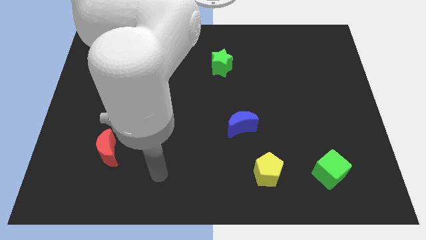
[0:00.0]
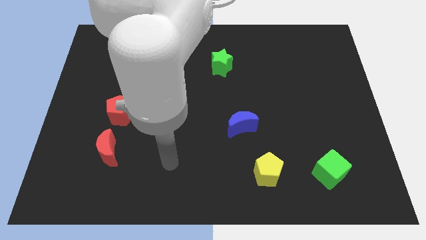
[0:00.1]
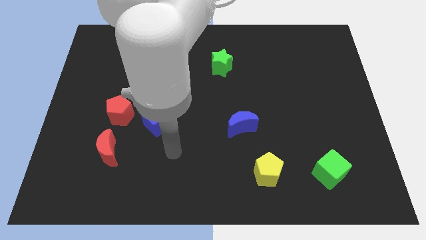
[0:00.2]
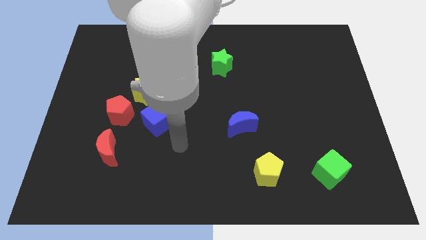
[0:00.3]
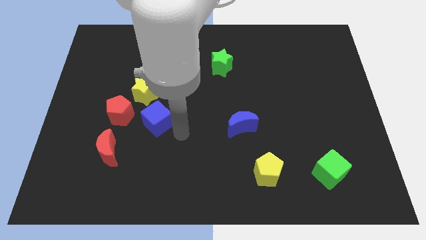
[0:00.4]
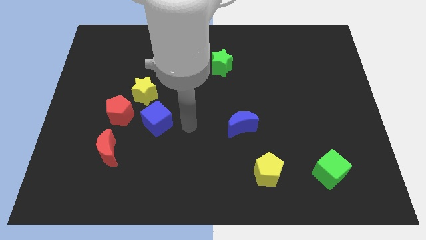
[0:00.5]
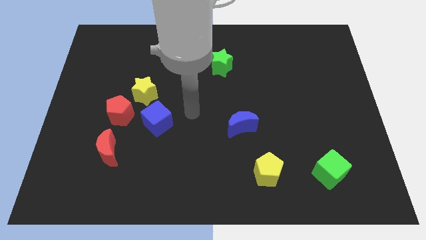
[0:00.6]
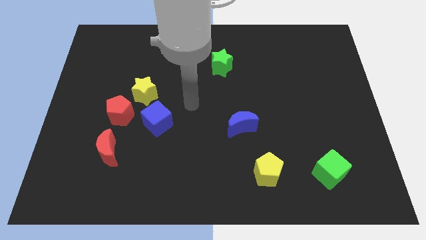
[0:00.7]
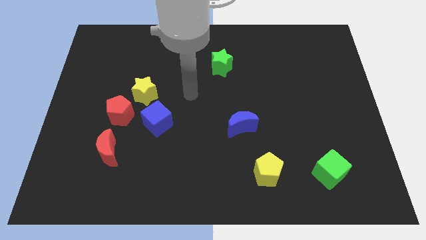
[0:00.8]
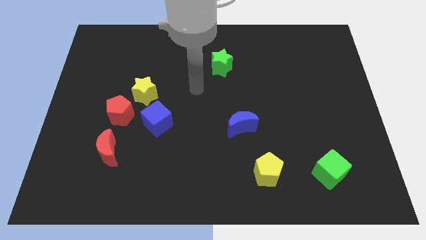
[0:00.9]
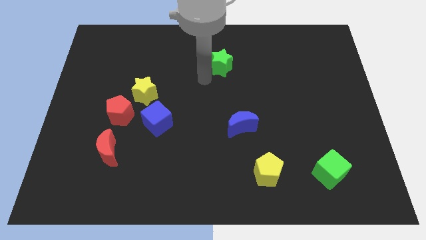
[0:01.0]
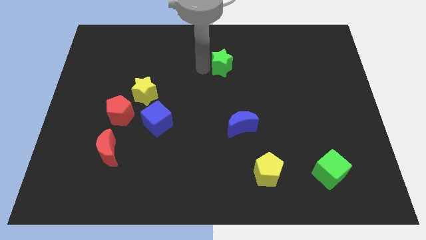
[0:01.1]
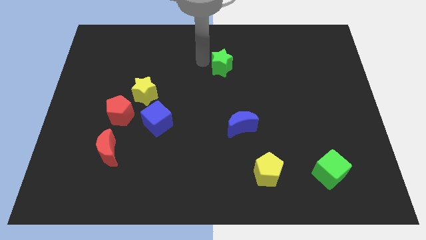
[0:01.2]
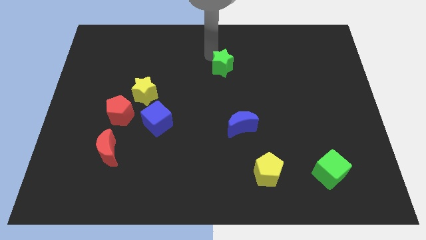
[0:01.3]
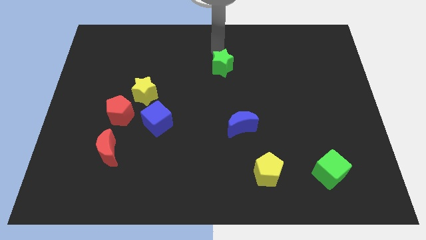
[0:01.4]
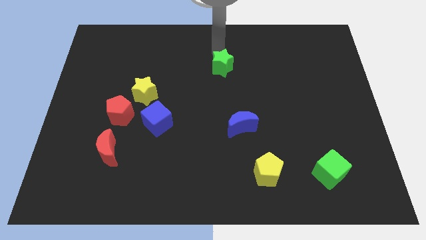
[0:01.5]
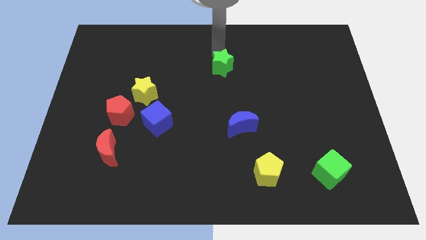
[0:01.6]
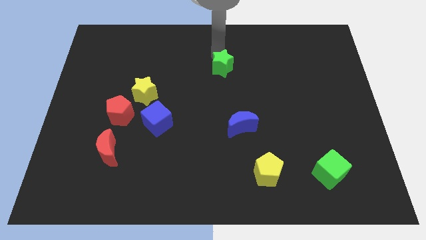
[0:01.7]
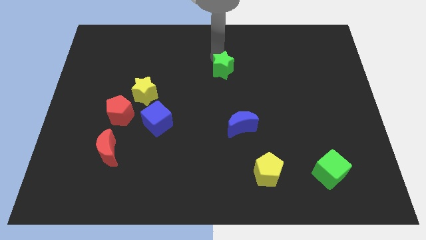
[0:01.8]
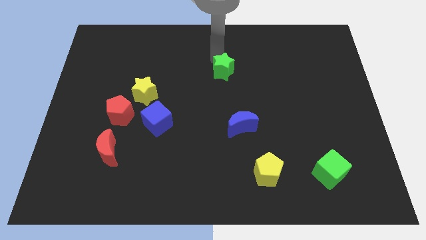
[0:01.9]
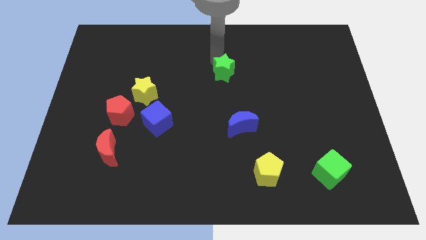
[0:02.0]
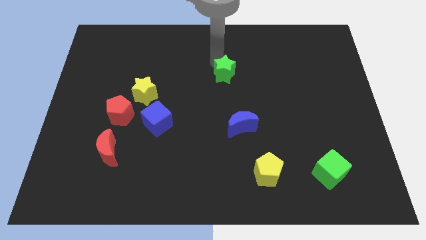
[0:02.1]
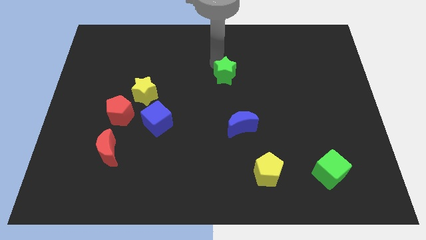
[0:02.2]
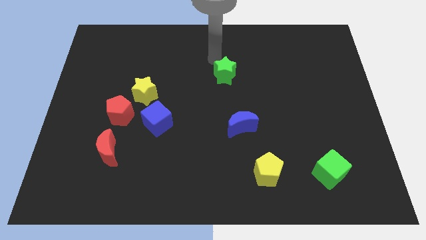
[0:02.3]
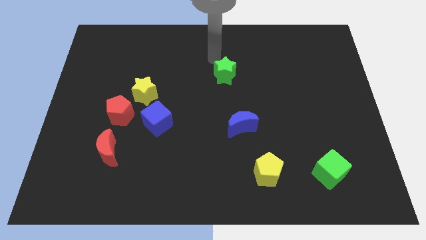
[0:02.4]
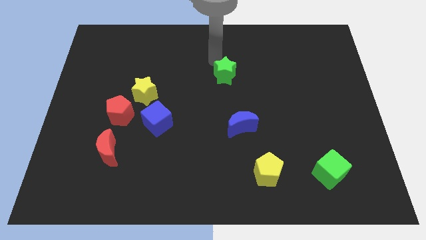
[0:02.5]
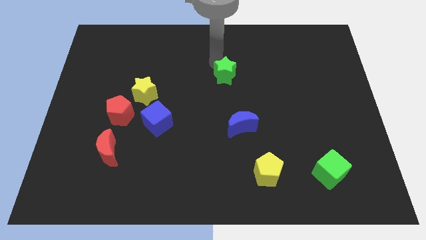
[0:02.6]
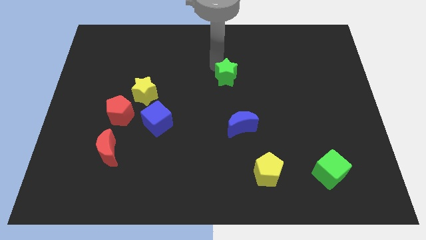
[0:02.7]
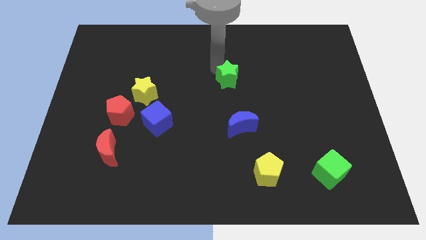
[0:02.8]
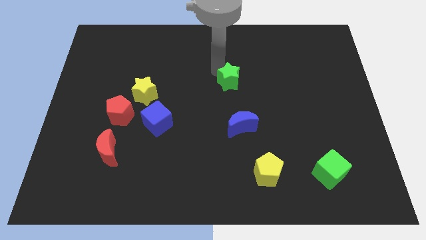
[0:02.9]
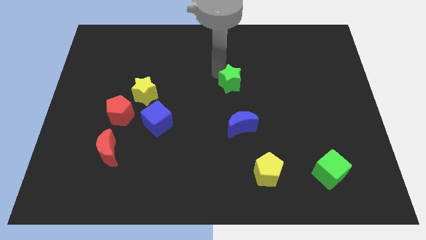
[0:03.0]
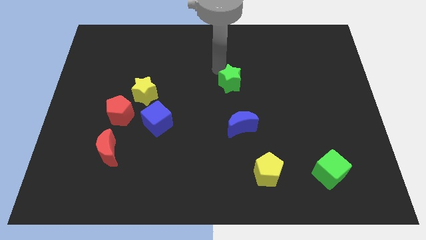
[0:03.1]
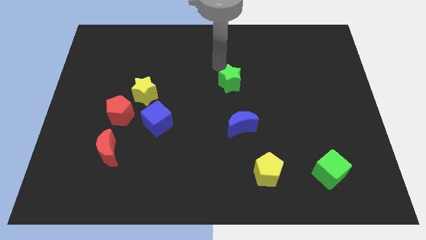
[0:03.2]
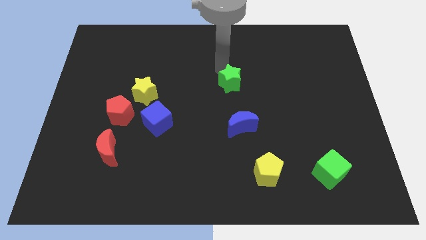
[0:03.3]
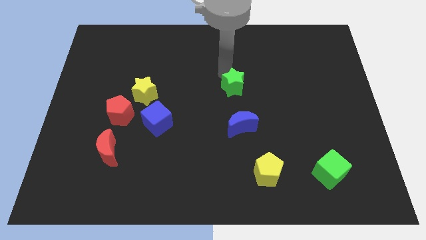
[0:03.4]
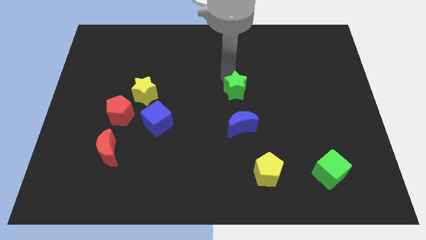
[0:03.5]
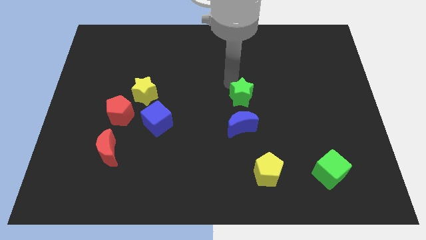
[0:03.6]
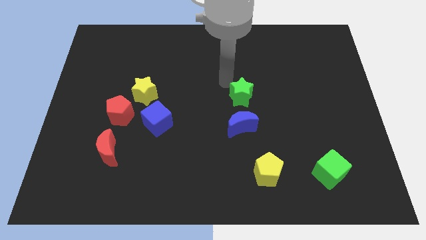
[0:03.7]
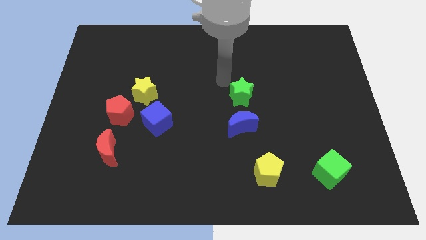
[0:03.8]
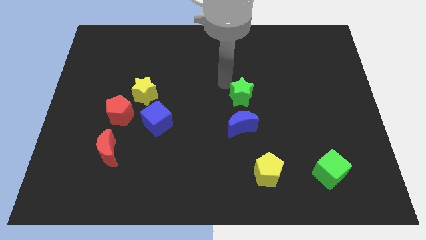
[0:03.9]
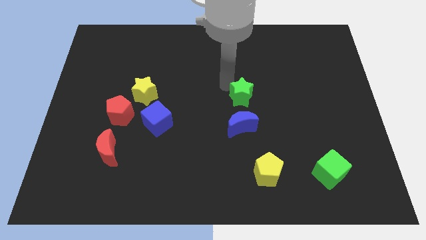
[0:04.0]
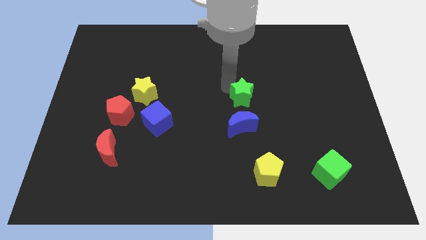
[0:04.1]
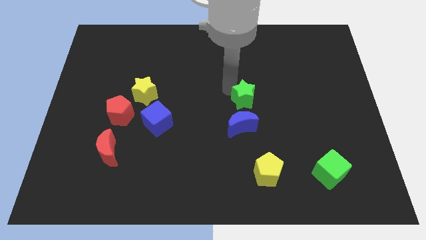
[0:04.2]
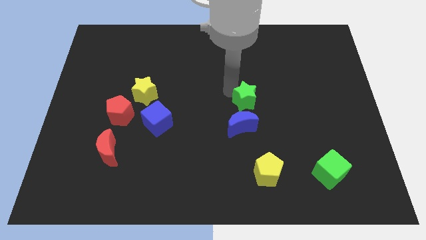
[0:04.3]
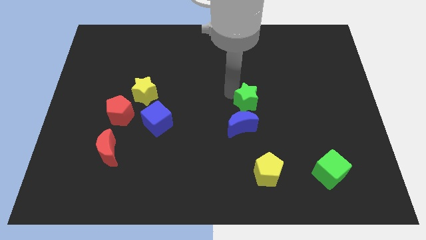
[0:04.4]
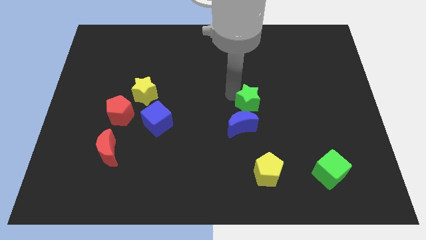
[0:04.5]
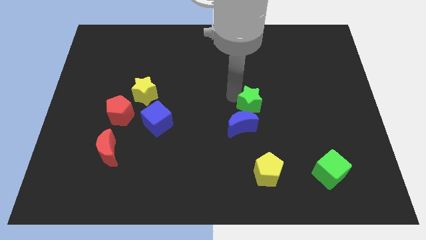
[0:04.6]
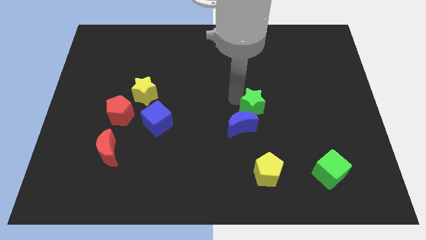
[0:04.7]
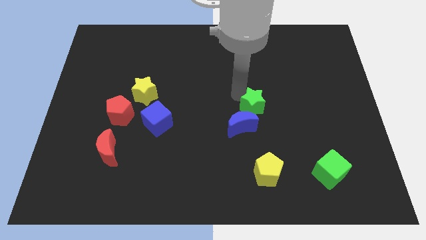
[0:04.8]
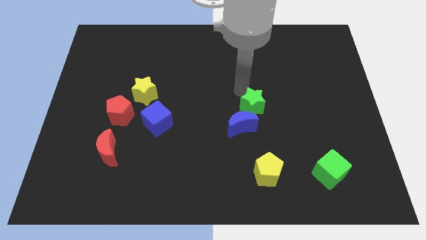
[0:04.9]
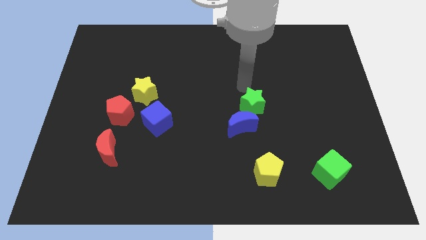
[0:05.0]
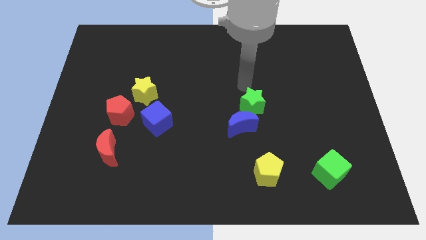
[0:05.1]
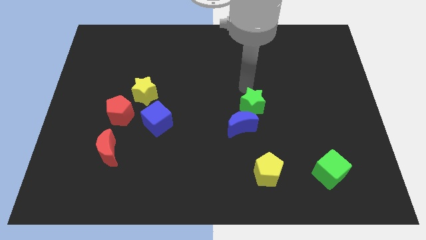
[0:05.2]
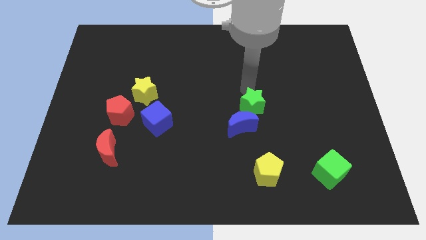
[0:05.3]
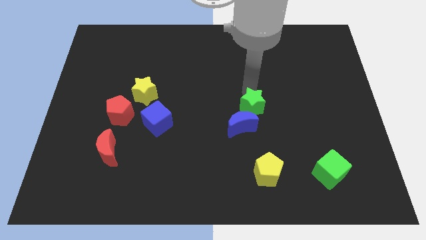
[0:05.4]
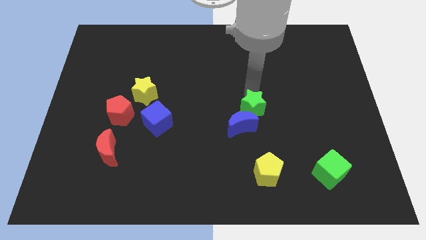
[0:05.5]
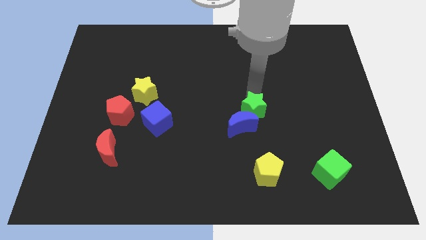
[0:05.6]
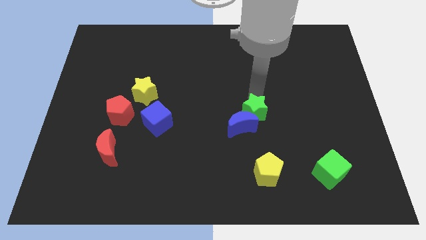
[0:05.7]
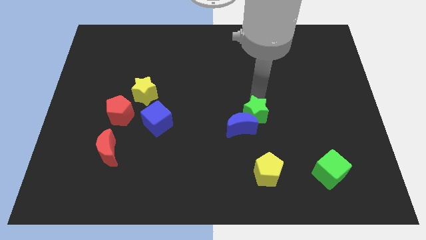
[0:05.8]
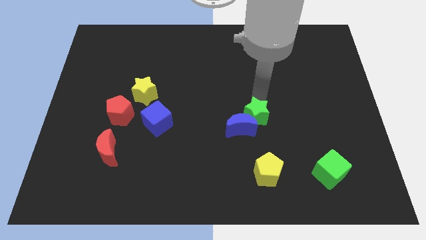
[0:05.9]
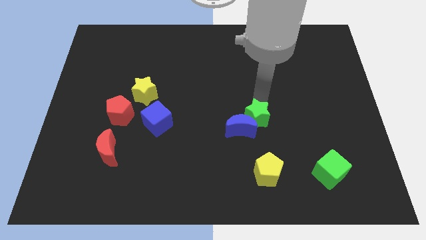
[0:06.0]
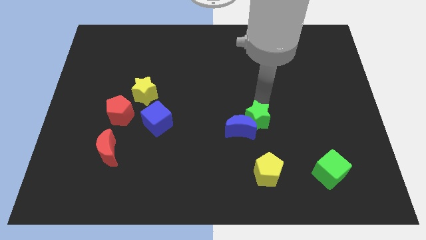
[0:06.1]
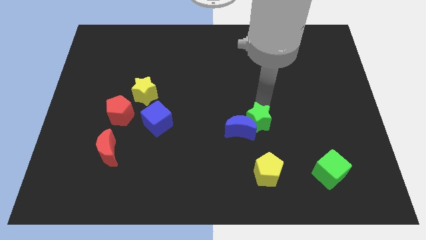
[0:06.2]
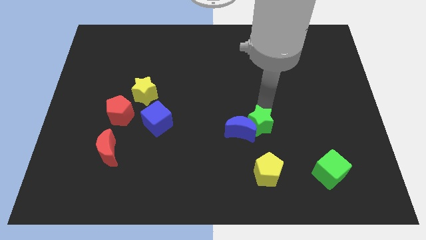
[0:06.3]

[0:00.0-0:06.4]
move the green star to the bottom right side of the blue moon
